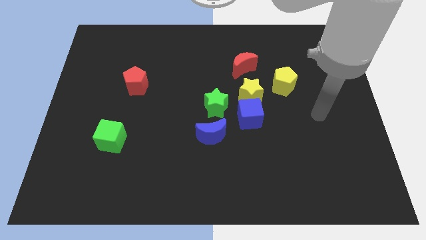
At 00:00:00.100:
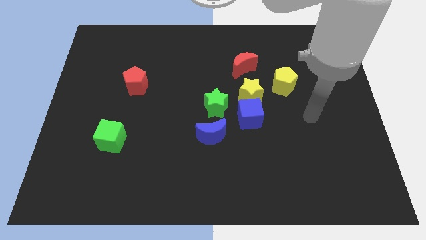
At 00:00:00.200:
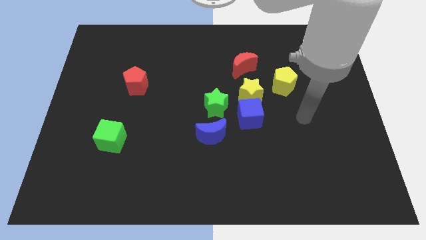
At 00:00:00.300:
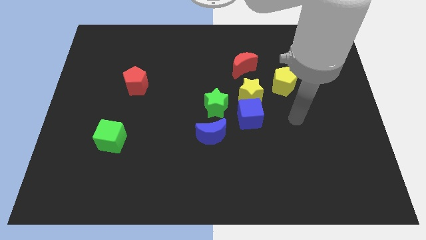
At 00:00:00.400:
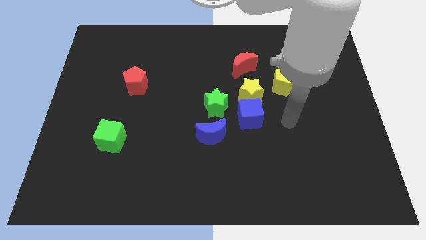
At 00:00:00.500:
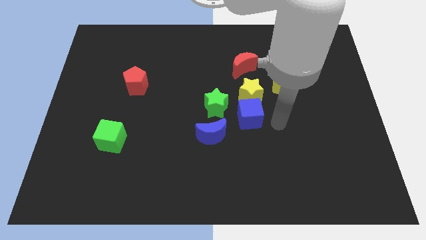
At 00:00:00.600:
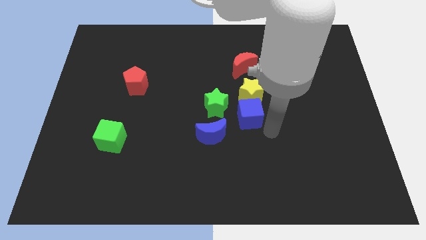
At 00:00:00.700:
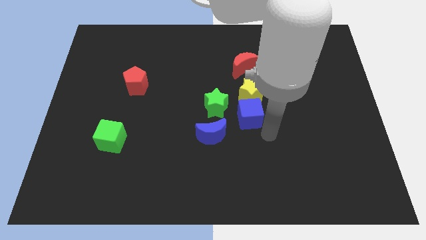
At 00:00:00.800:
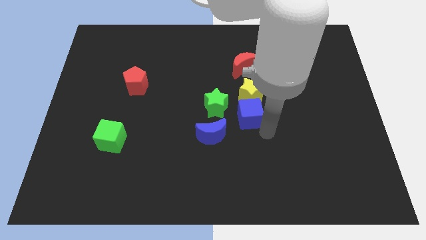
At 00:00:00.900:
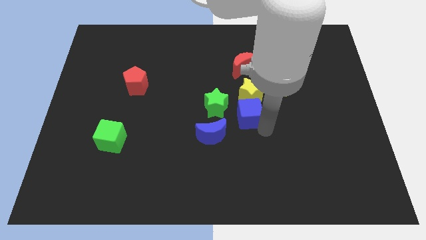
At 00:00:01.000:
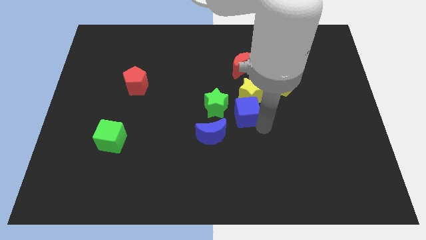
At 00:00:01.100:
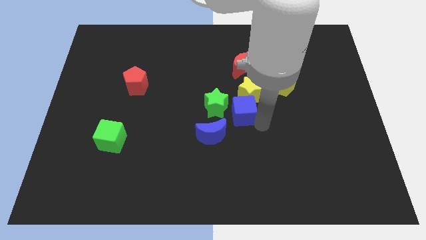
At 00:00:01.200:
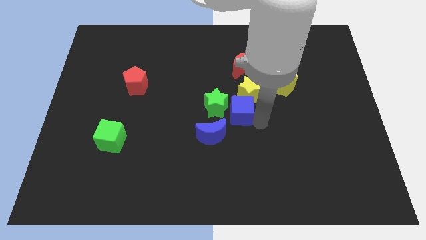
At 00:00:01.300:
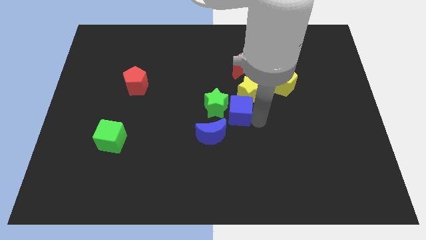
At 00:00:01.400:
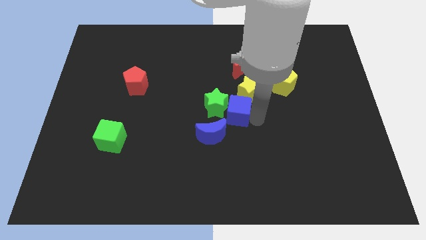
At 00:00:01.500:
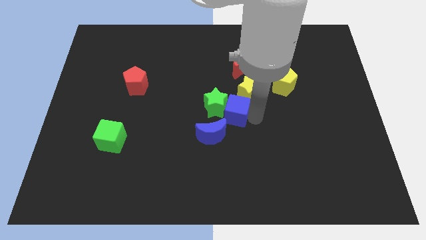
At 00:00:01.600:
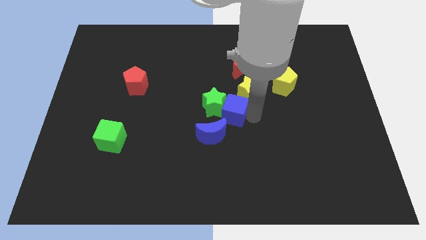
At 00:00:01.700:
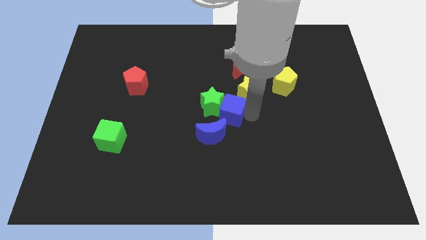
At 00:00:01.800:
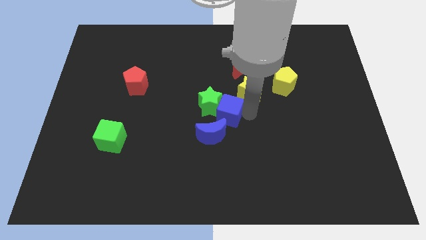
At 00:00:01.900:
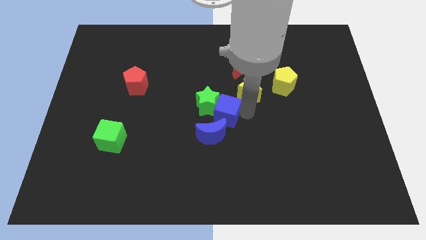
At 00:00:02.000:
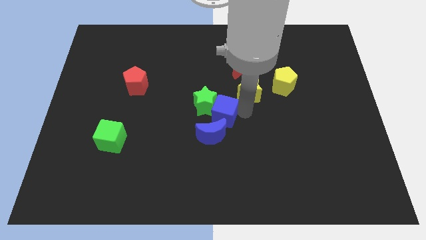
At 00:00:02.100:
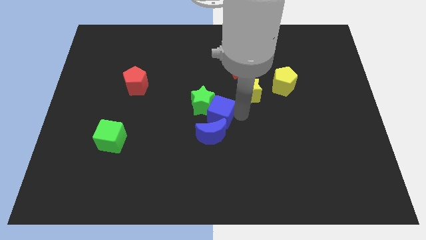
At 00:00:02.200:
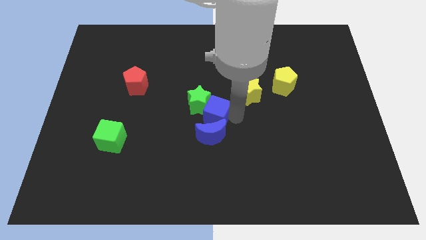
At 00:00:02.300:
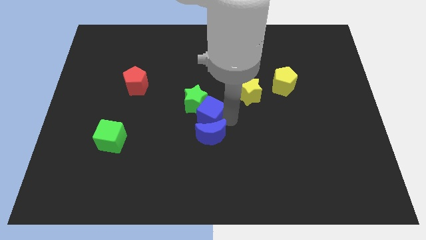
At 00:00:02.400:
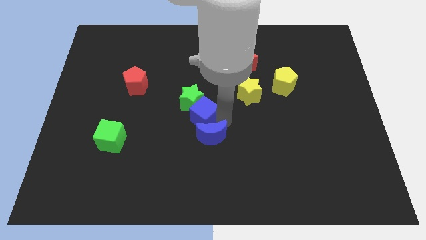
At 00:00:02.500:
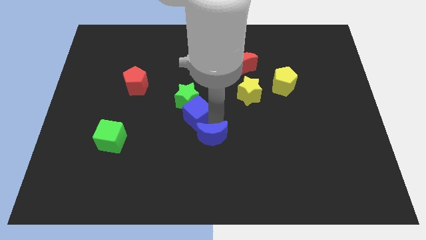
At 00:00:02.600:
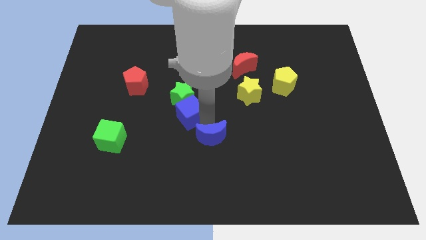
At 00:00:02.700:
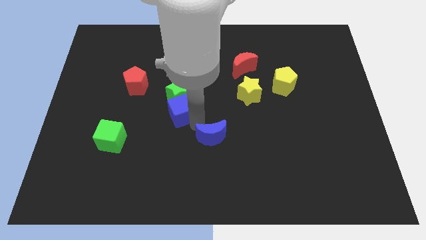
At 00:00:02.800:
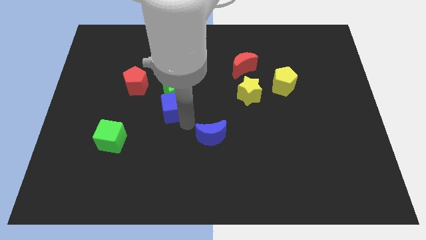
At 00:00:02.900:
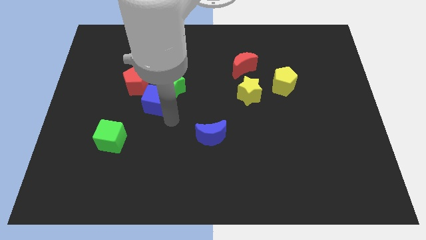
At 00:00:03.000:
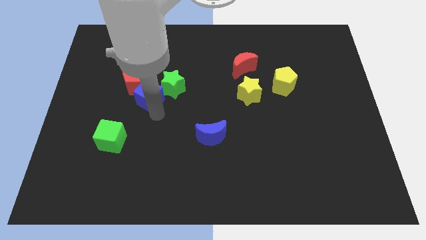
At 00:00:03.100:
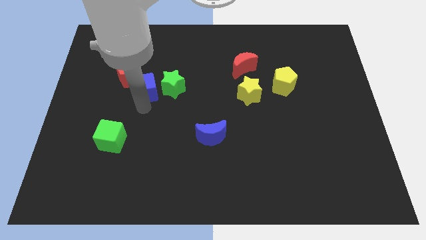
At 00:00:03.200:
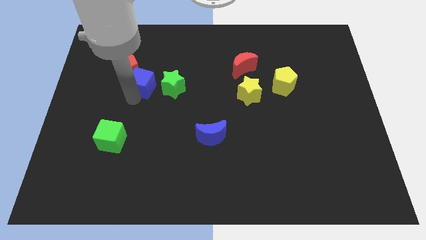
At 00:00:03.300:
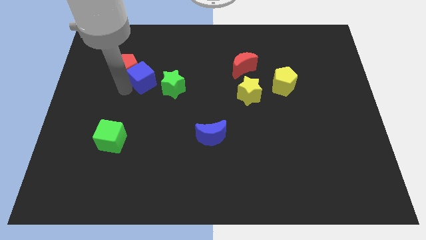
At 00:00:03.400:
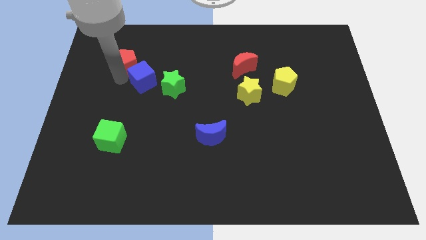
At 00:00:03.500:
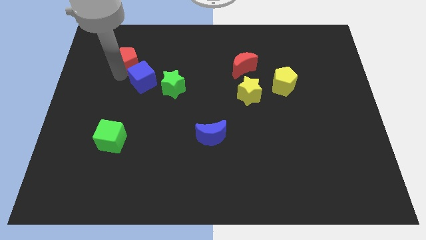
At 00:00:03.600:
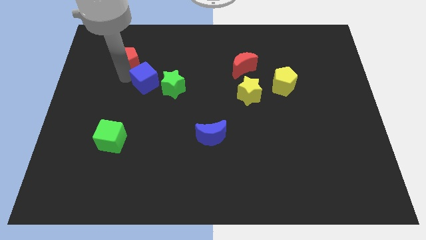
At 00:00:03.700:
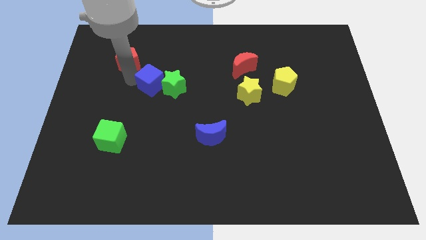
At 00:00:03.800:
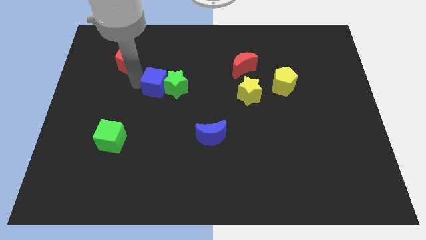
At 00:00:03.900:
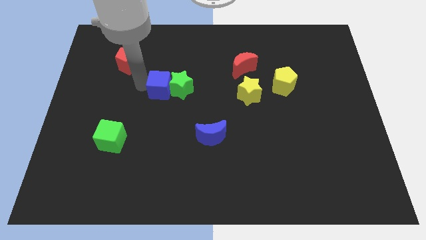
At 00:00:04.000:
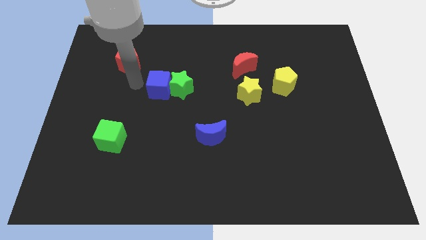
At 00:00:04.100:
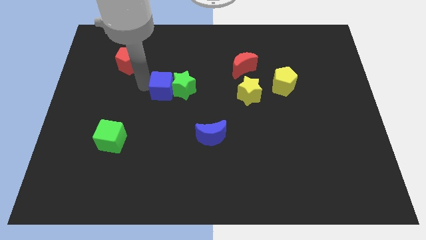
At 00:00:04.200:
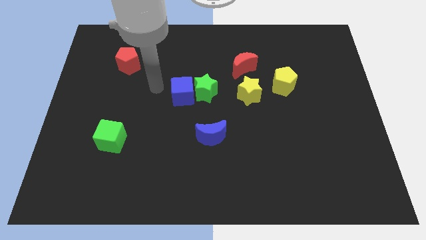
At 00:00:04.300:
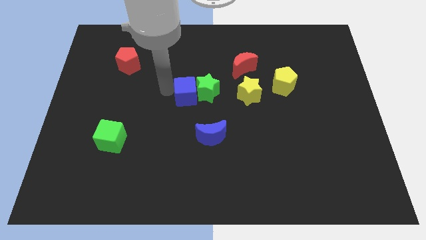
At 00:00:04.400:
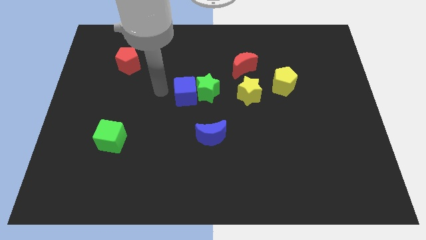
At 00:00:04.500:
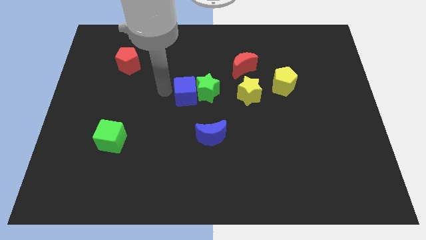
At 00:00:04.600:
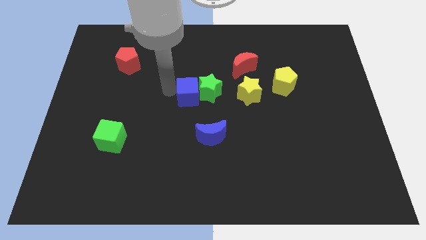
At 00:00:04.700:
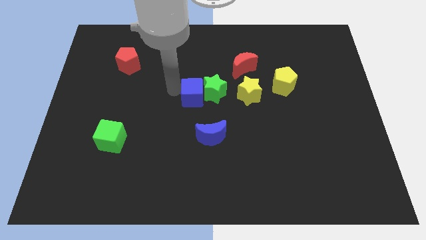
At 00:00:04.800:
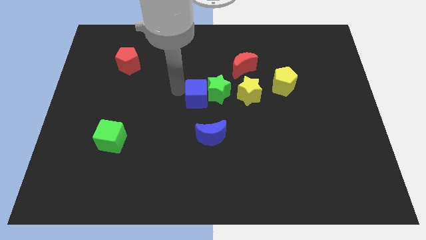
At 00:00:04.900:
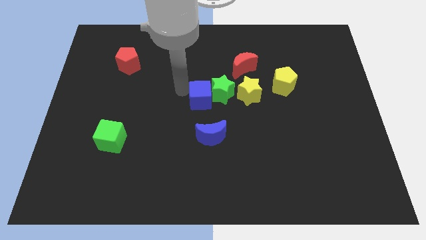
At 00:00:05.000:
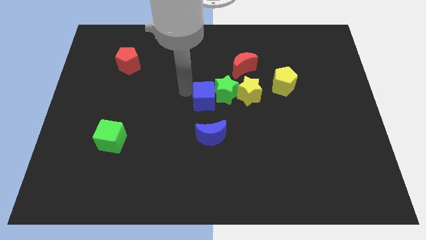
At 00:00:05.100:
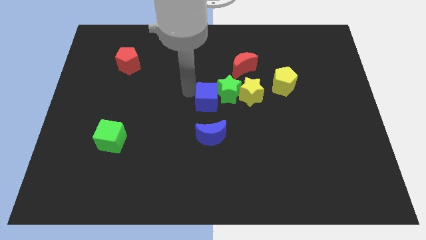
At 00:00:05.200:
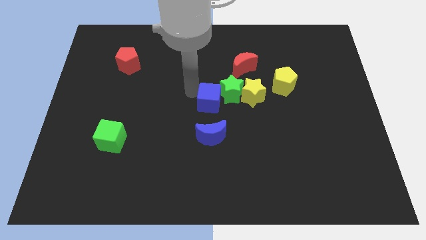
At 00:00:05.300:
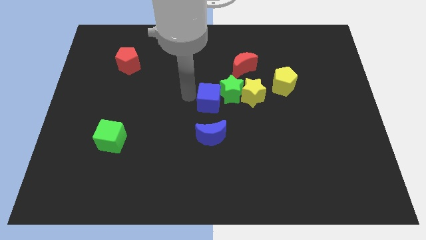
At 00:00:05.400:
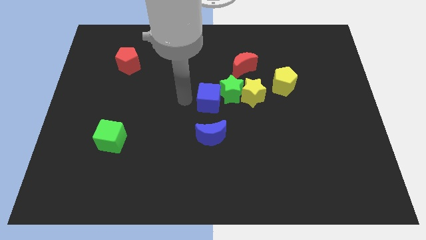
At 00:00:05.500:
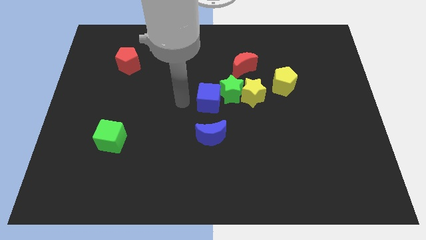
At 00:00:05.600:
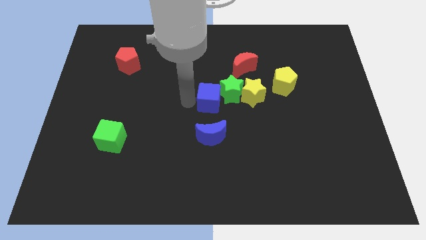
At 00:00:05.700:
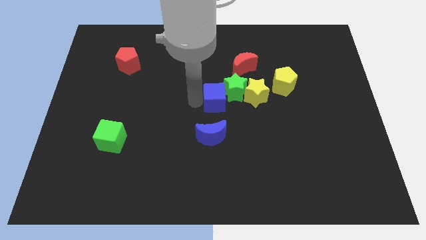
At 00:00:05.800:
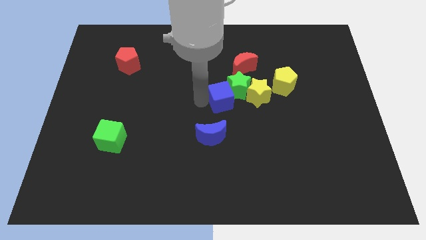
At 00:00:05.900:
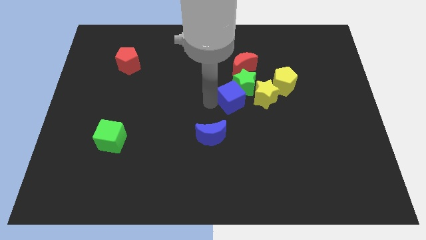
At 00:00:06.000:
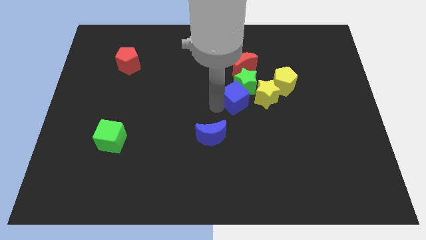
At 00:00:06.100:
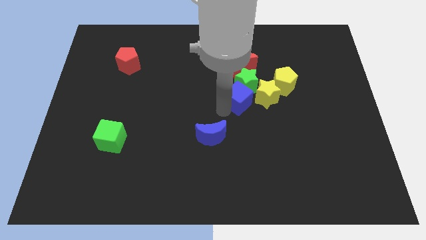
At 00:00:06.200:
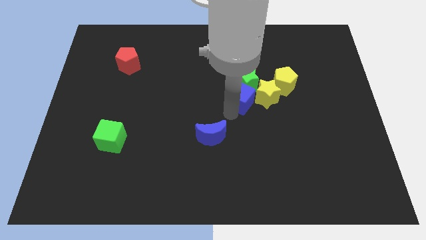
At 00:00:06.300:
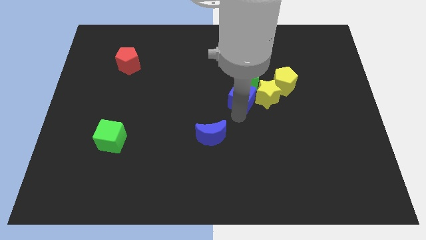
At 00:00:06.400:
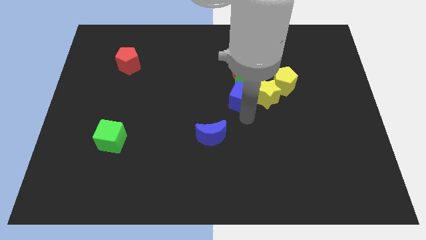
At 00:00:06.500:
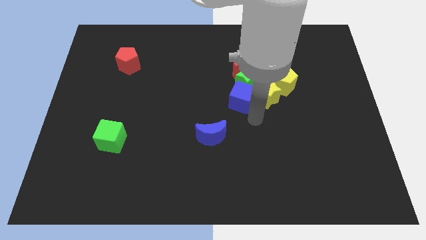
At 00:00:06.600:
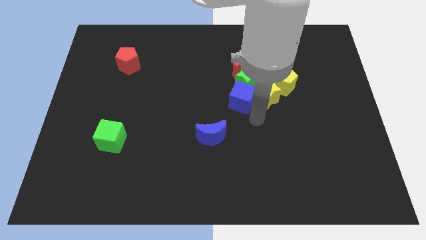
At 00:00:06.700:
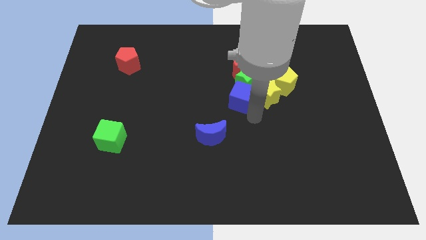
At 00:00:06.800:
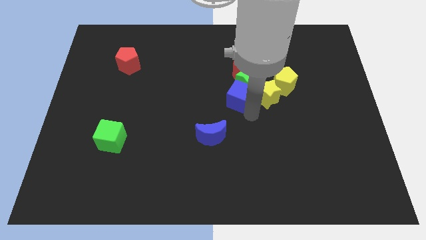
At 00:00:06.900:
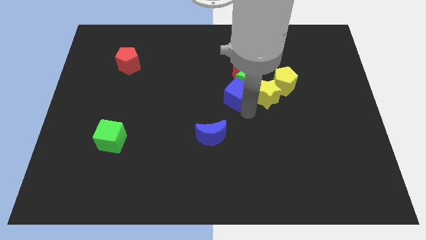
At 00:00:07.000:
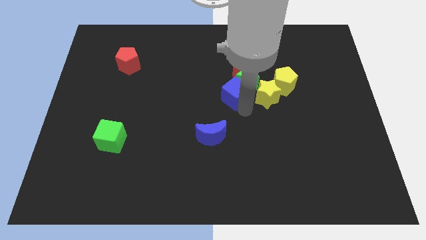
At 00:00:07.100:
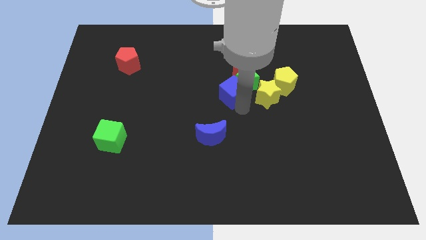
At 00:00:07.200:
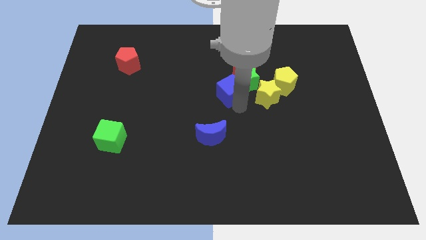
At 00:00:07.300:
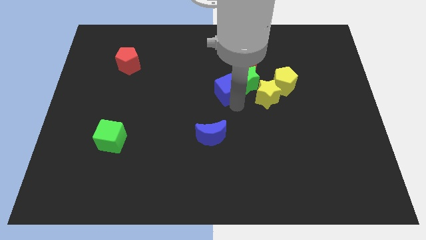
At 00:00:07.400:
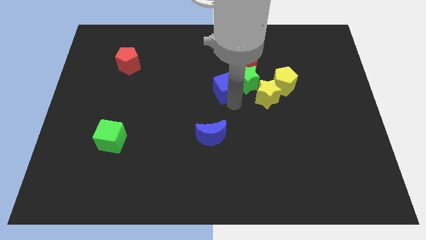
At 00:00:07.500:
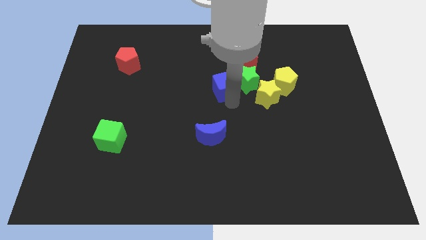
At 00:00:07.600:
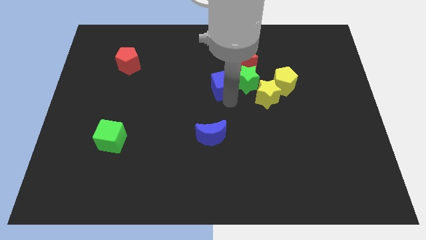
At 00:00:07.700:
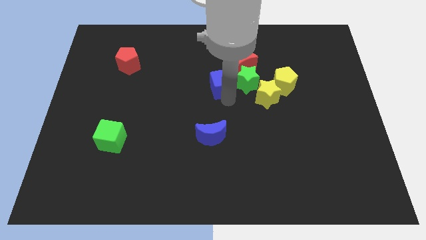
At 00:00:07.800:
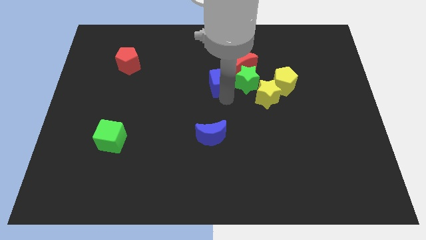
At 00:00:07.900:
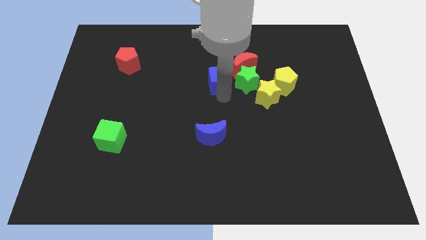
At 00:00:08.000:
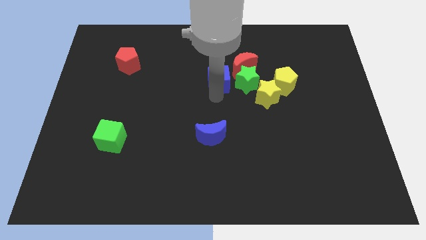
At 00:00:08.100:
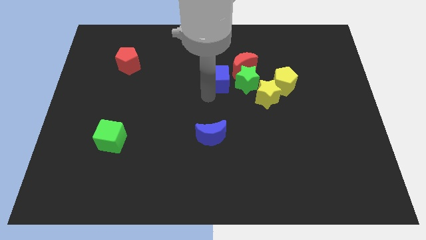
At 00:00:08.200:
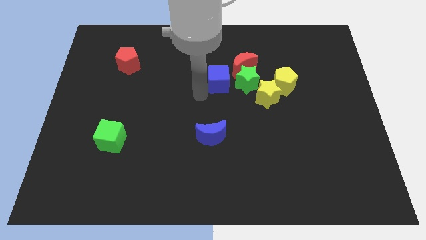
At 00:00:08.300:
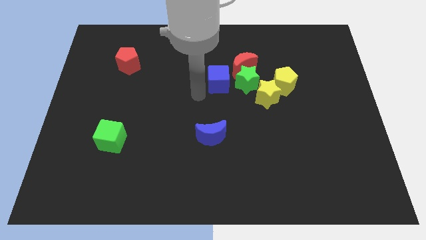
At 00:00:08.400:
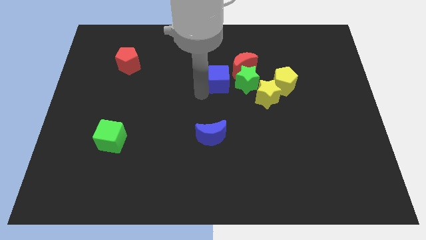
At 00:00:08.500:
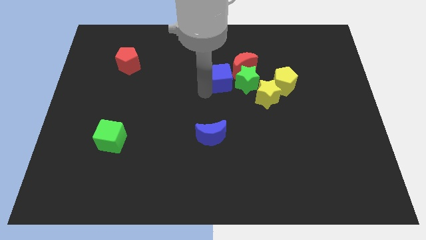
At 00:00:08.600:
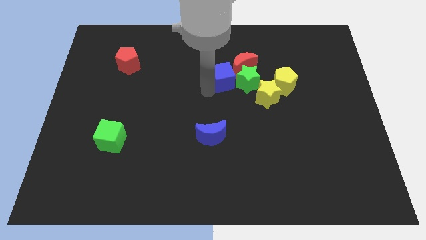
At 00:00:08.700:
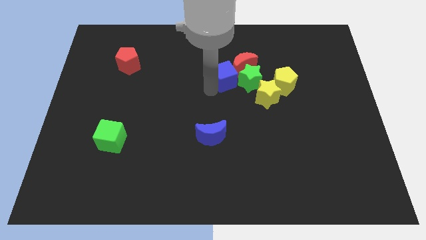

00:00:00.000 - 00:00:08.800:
push the blue cube towards the red moon
